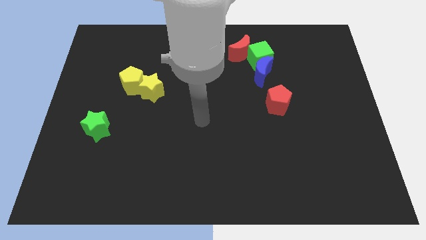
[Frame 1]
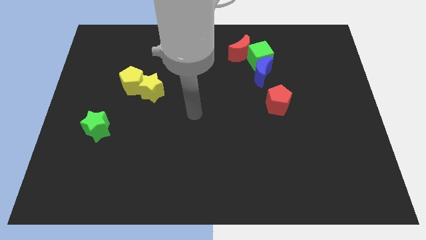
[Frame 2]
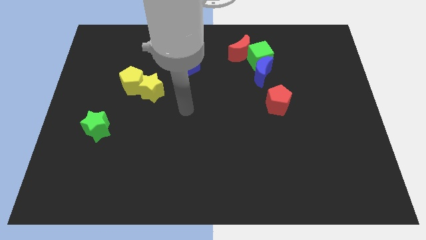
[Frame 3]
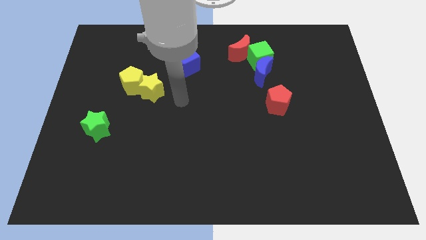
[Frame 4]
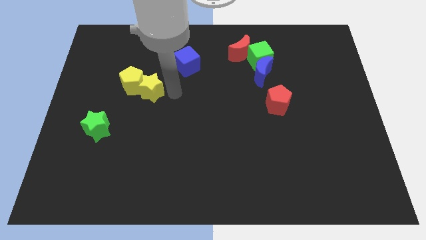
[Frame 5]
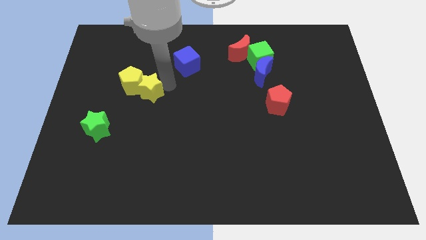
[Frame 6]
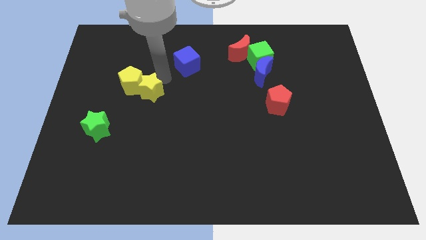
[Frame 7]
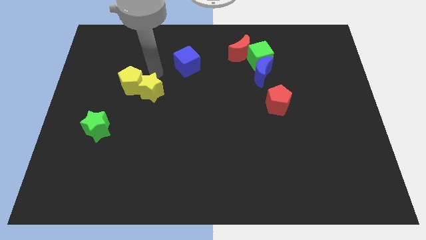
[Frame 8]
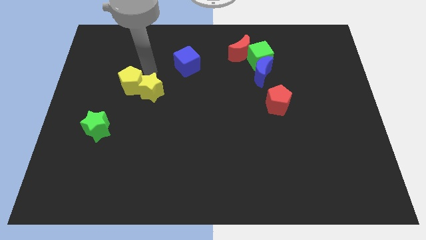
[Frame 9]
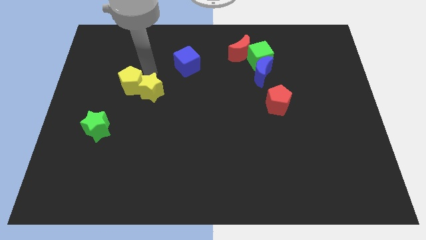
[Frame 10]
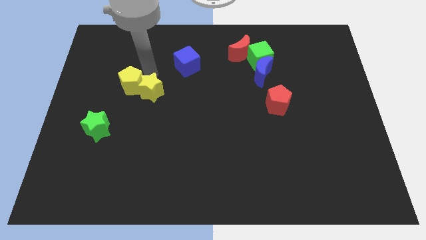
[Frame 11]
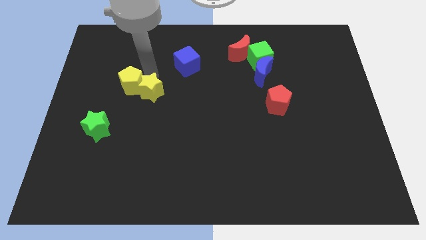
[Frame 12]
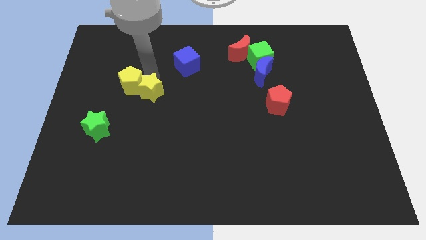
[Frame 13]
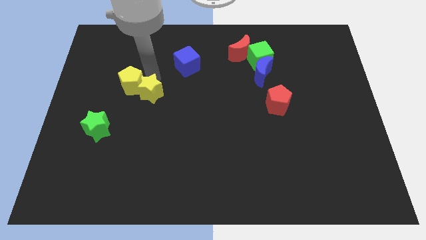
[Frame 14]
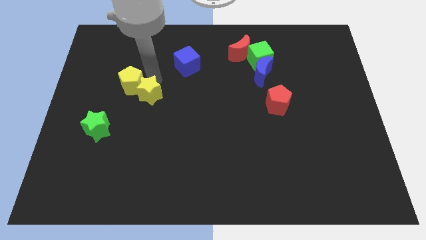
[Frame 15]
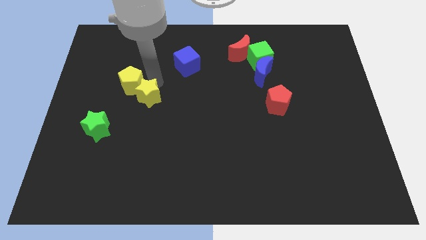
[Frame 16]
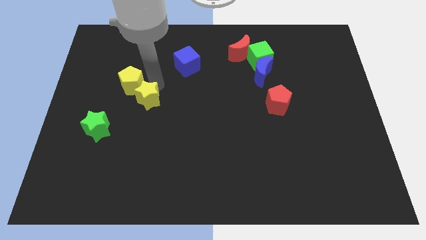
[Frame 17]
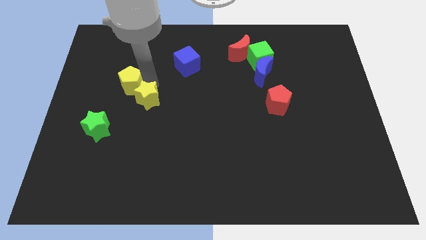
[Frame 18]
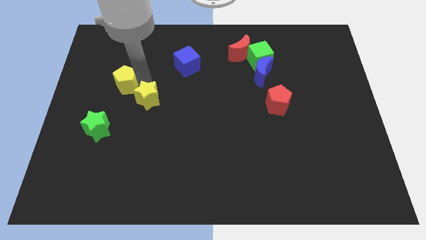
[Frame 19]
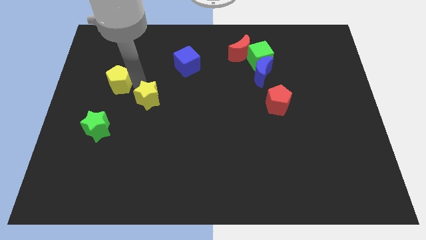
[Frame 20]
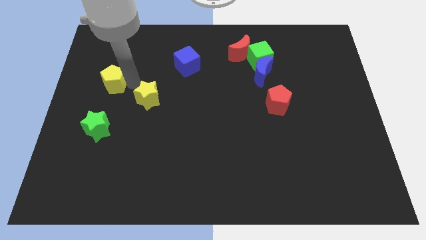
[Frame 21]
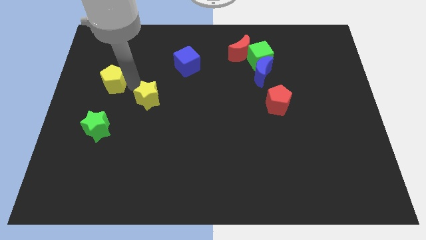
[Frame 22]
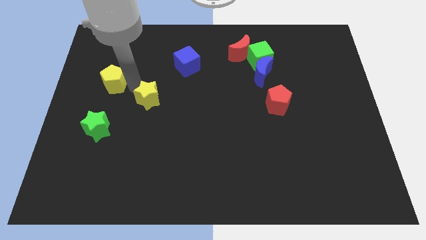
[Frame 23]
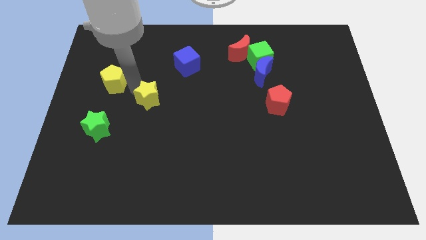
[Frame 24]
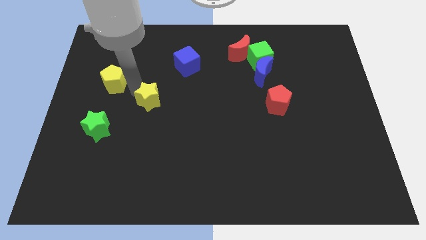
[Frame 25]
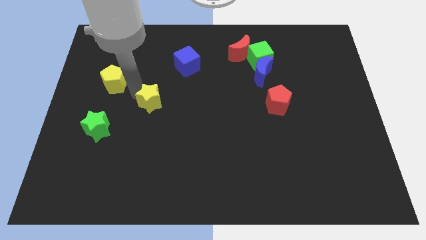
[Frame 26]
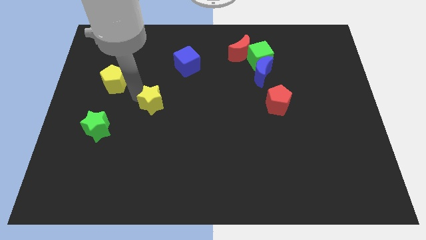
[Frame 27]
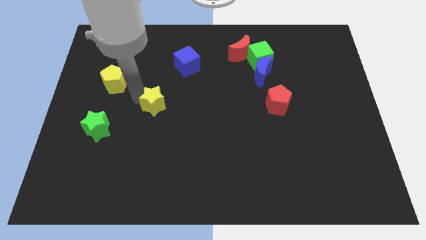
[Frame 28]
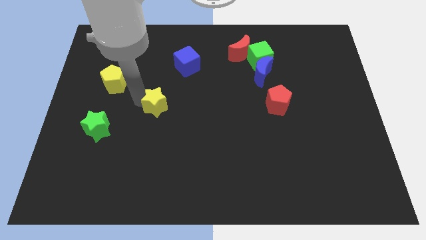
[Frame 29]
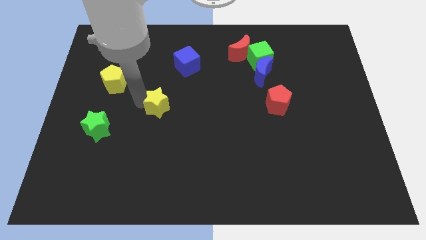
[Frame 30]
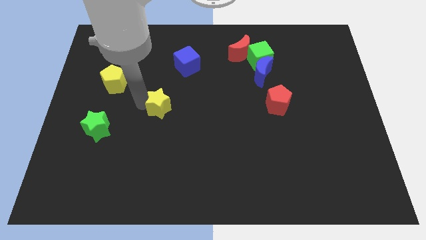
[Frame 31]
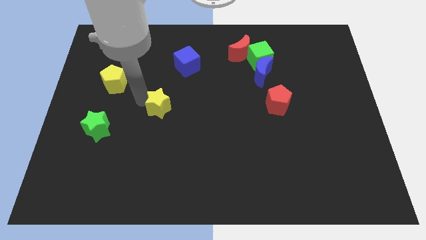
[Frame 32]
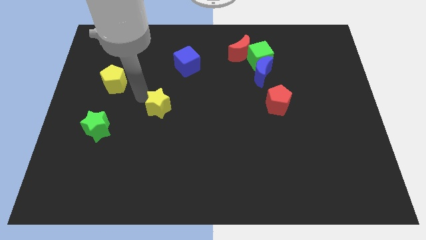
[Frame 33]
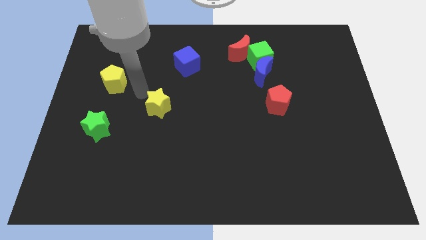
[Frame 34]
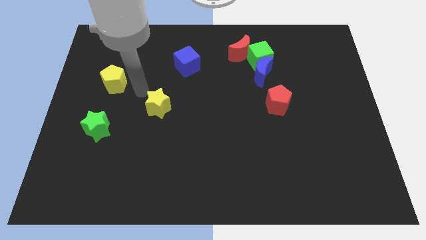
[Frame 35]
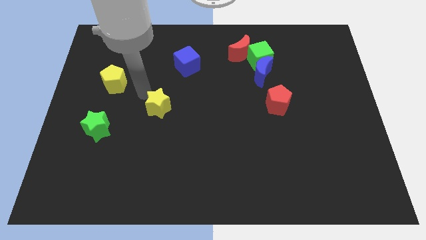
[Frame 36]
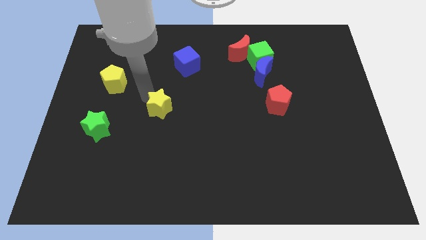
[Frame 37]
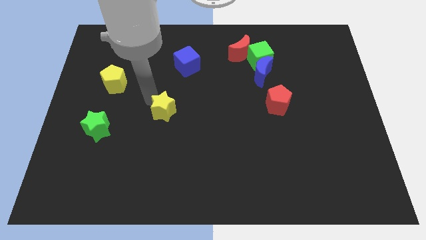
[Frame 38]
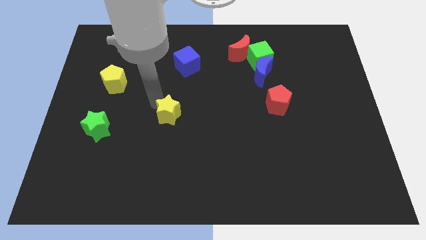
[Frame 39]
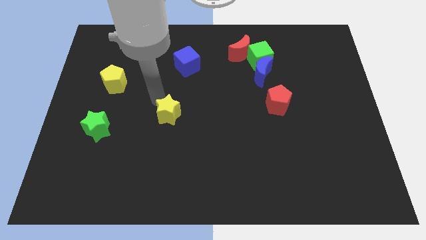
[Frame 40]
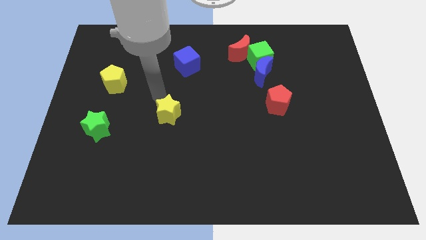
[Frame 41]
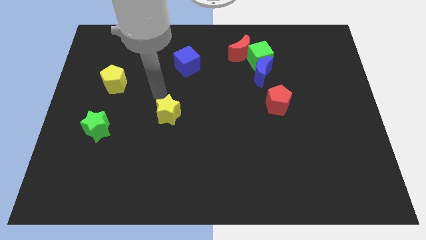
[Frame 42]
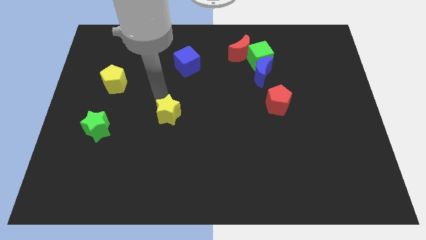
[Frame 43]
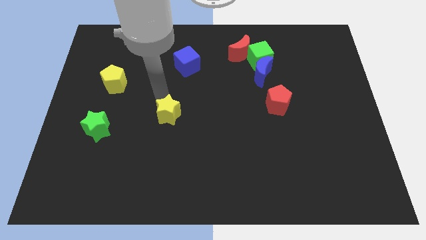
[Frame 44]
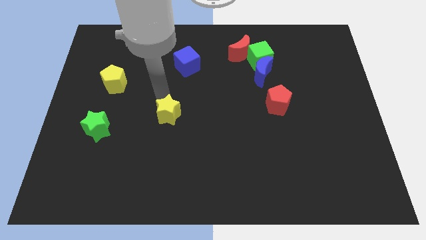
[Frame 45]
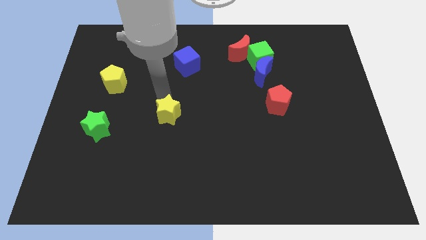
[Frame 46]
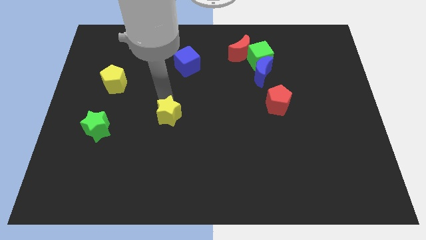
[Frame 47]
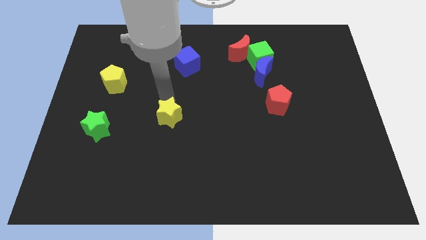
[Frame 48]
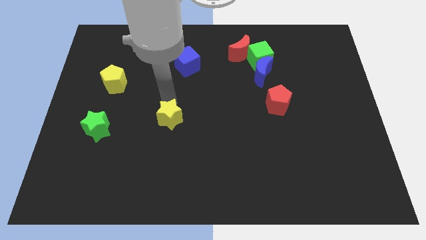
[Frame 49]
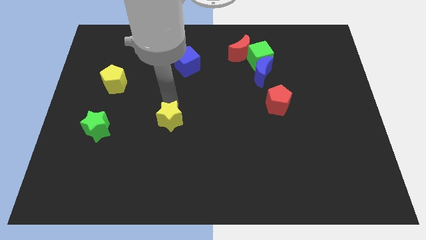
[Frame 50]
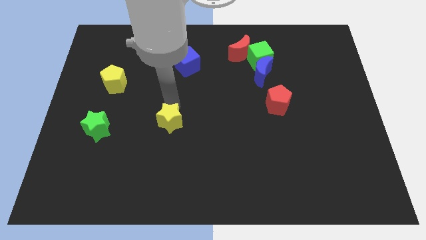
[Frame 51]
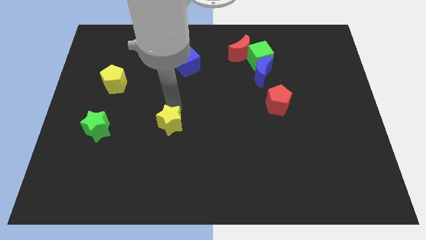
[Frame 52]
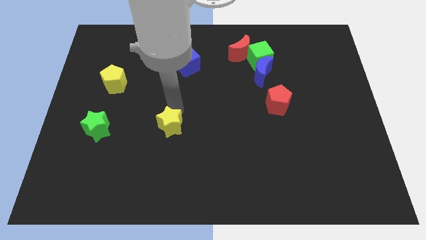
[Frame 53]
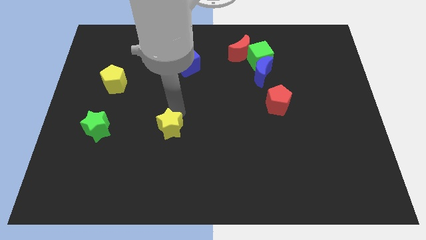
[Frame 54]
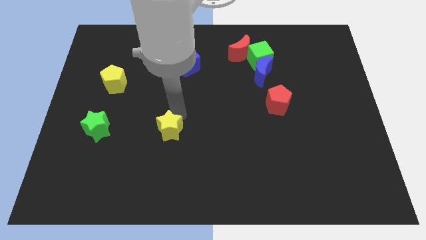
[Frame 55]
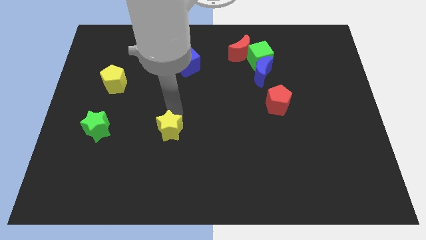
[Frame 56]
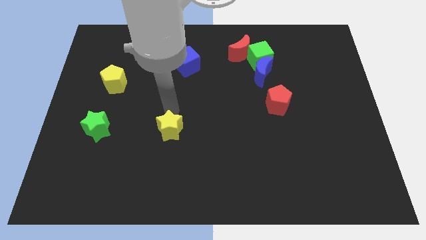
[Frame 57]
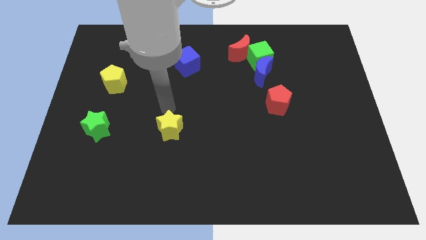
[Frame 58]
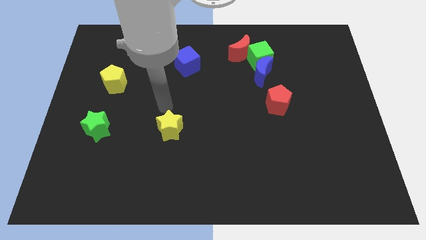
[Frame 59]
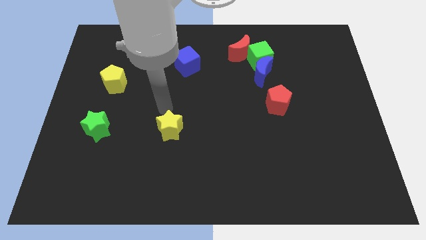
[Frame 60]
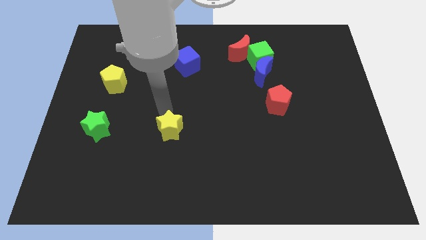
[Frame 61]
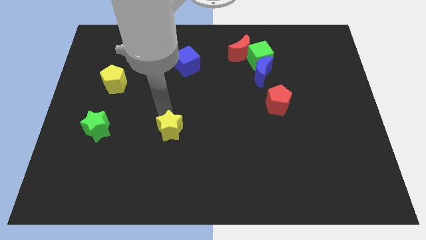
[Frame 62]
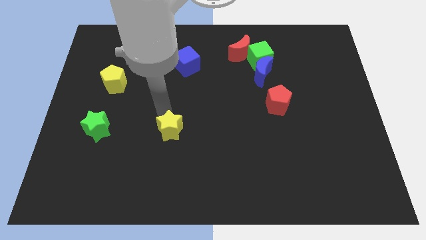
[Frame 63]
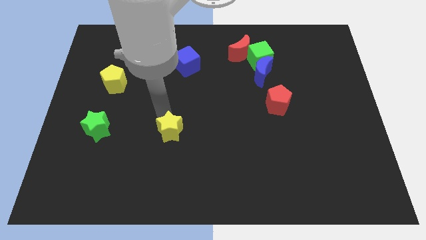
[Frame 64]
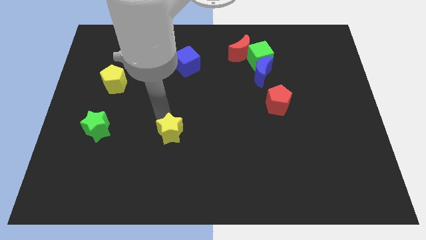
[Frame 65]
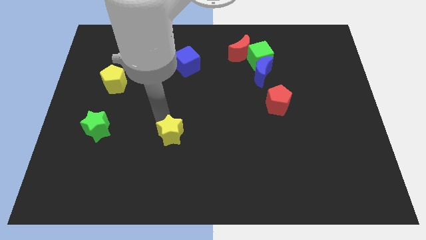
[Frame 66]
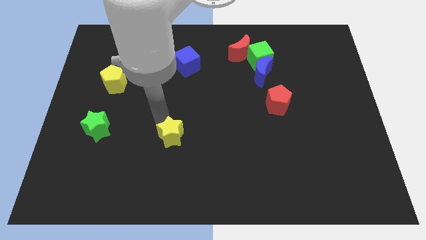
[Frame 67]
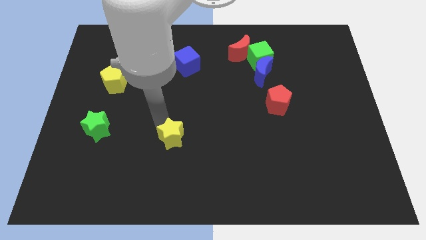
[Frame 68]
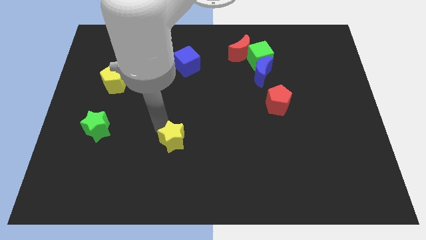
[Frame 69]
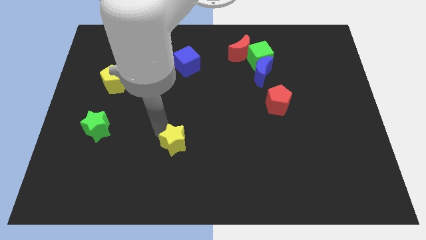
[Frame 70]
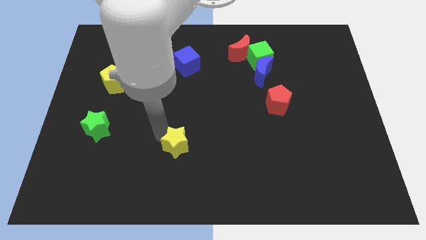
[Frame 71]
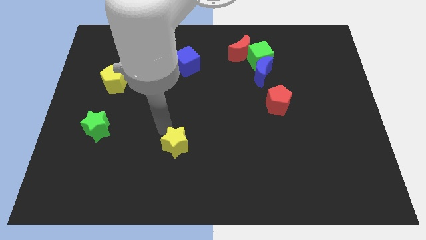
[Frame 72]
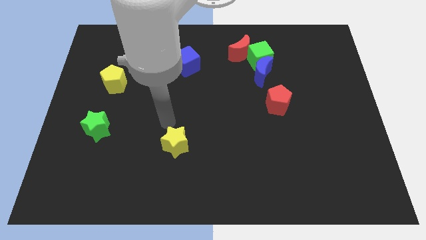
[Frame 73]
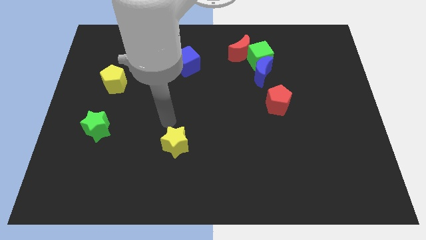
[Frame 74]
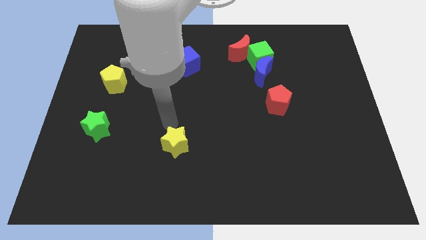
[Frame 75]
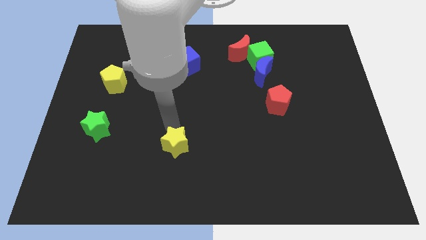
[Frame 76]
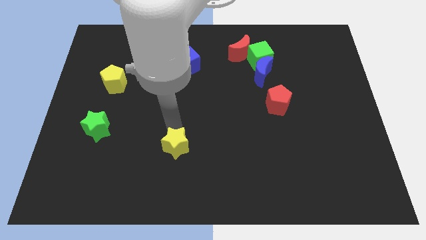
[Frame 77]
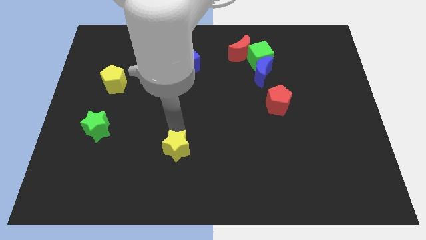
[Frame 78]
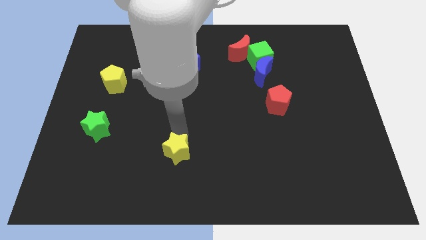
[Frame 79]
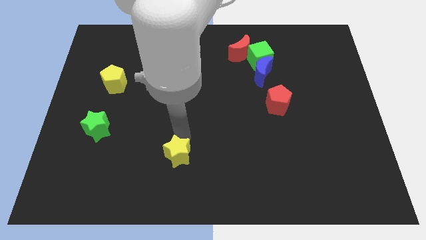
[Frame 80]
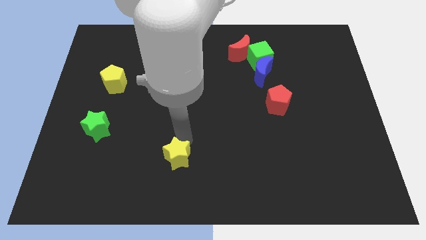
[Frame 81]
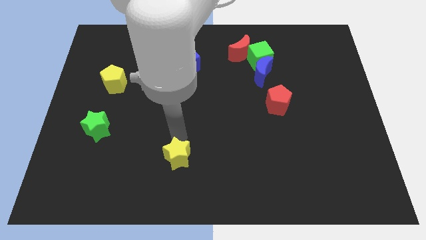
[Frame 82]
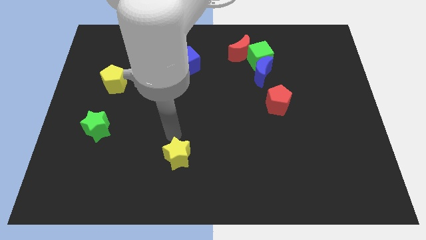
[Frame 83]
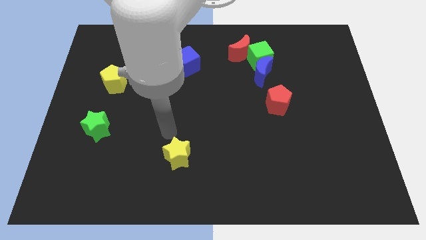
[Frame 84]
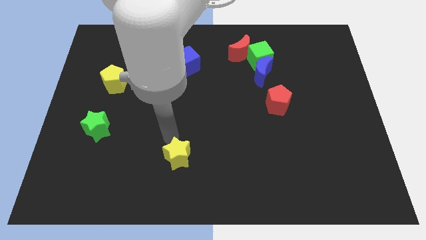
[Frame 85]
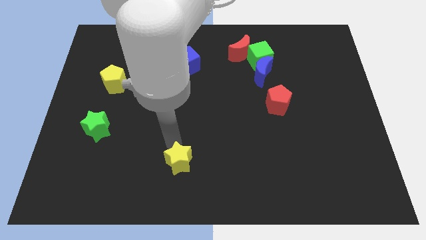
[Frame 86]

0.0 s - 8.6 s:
slide the yellow star to the bottom
